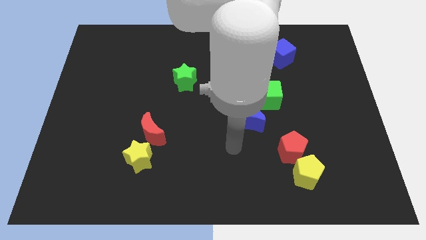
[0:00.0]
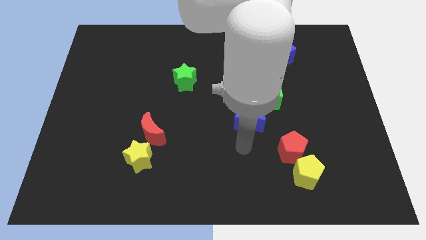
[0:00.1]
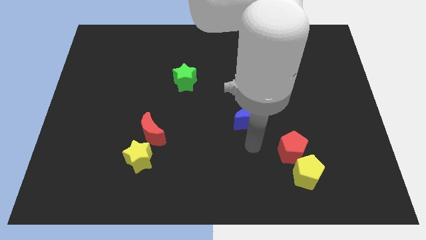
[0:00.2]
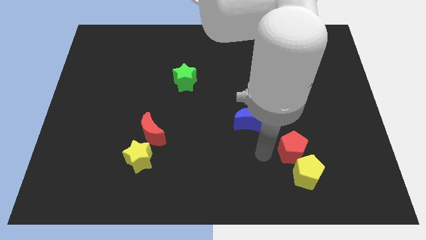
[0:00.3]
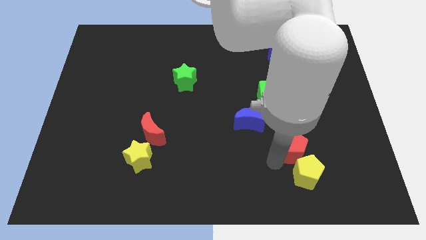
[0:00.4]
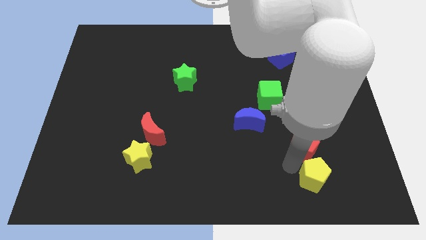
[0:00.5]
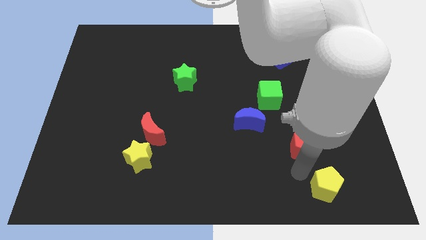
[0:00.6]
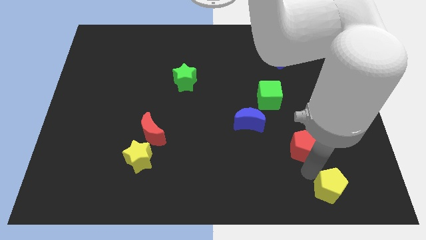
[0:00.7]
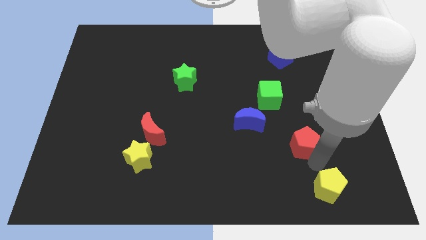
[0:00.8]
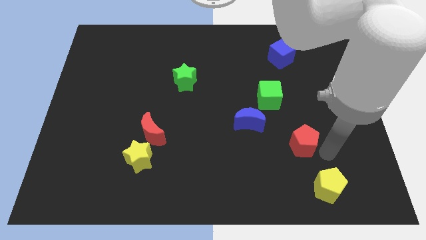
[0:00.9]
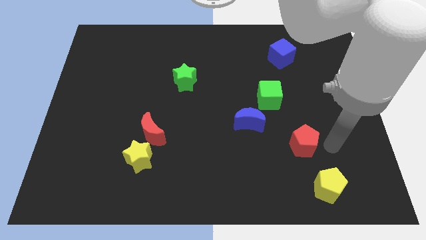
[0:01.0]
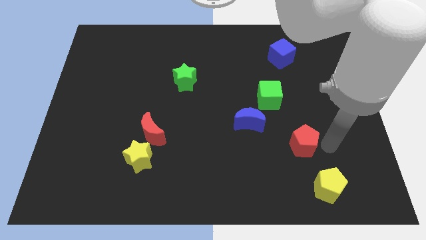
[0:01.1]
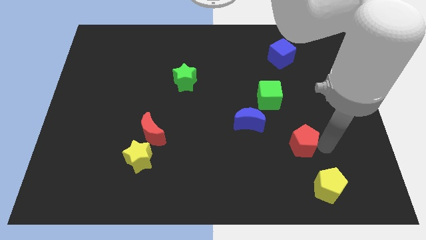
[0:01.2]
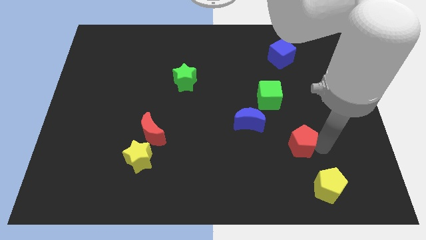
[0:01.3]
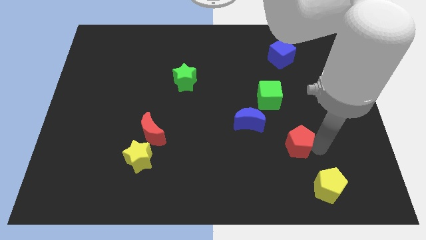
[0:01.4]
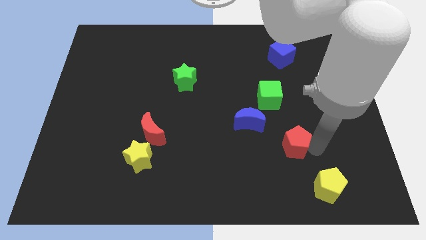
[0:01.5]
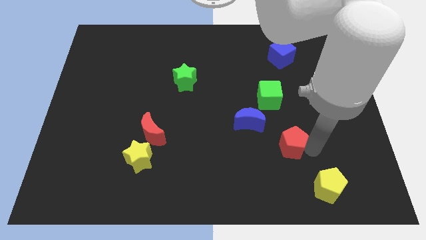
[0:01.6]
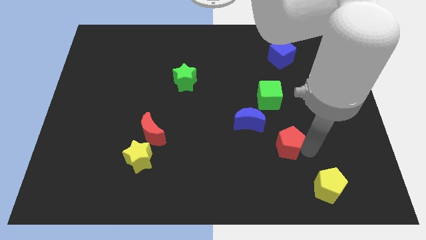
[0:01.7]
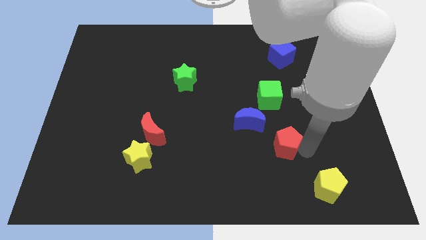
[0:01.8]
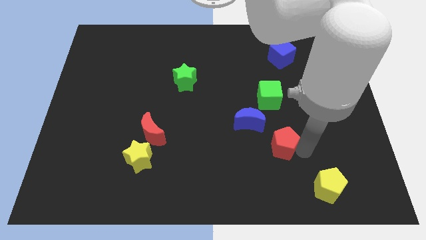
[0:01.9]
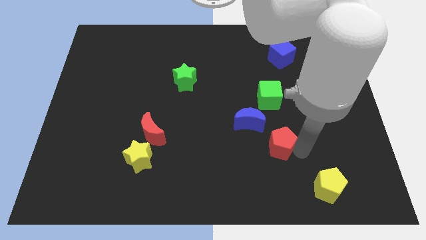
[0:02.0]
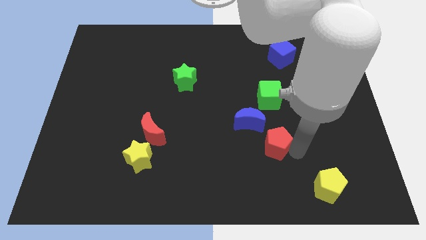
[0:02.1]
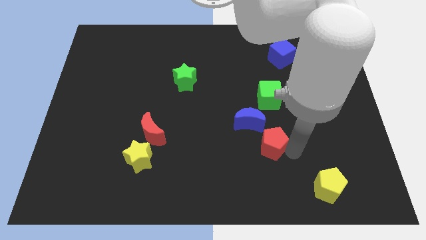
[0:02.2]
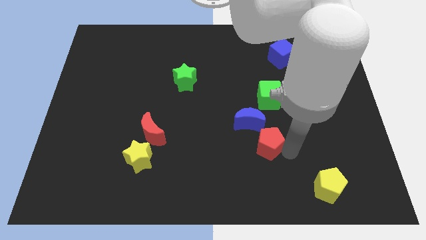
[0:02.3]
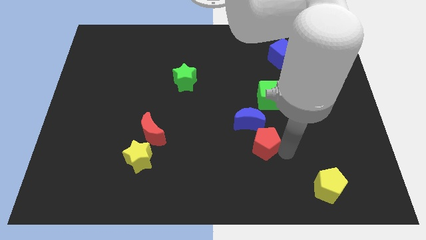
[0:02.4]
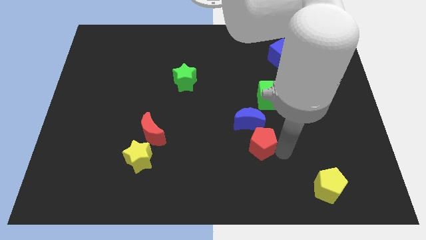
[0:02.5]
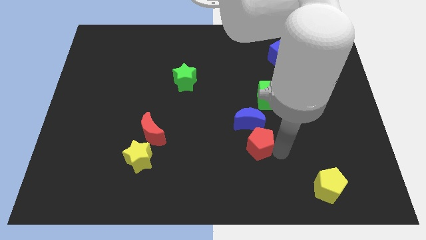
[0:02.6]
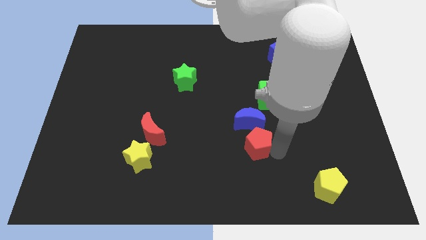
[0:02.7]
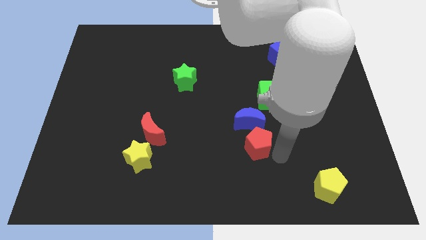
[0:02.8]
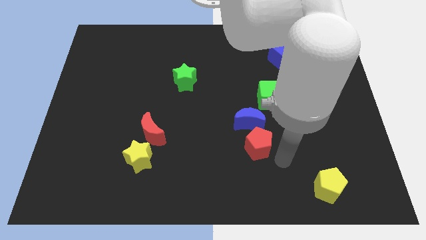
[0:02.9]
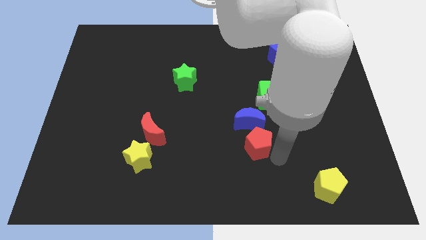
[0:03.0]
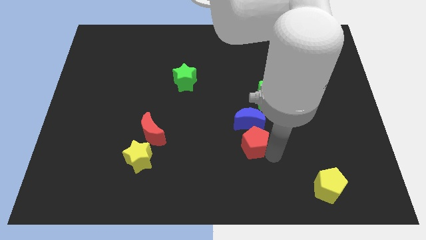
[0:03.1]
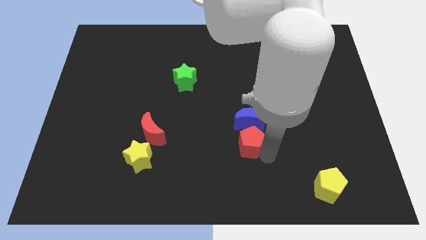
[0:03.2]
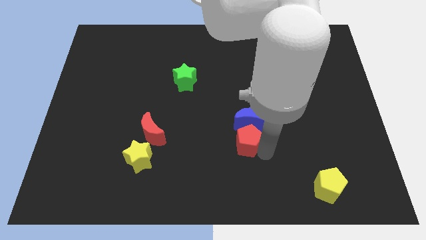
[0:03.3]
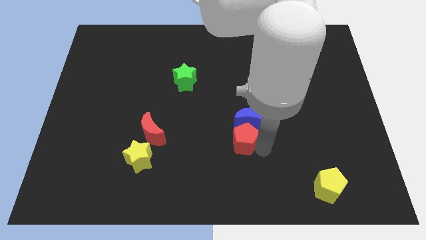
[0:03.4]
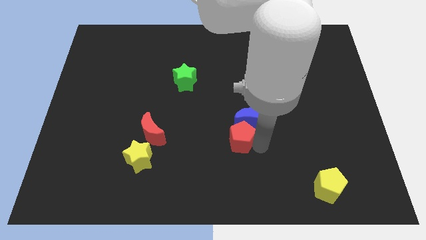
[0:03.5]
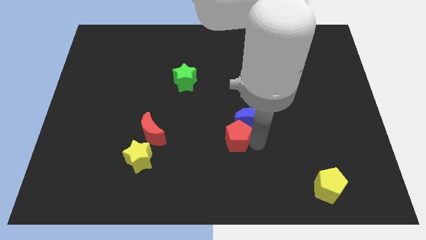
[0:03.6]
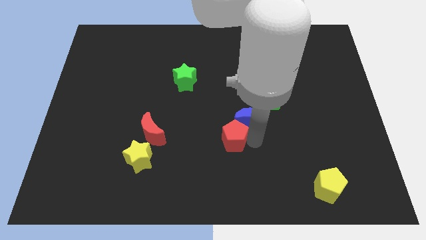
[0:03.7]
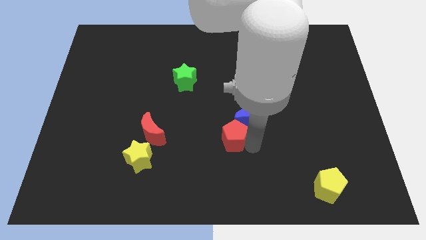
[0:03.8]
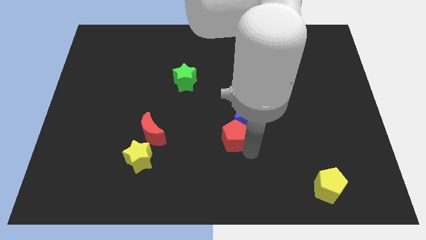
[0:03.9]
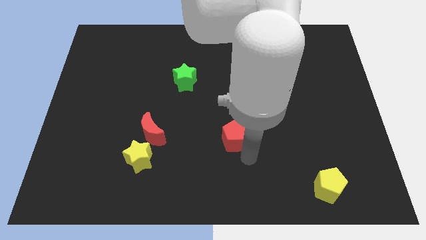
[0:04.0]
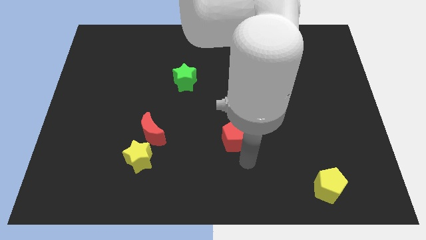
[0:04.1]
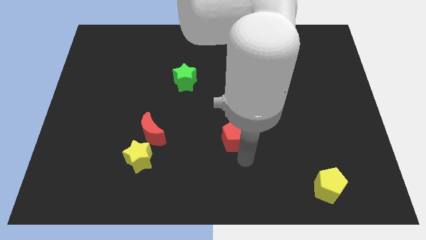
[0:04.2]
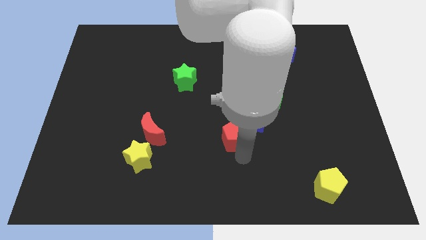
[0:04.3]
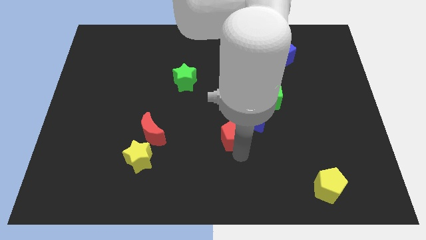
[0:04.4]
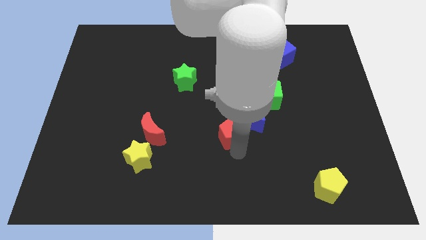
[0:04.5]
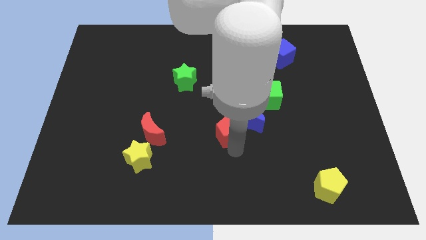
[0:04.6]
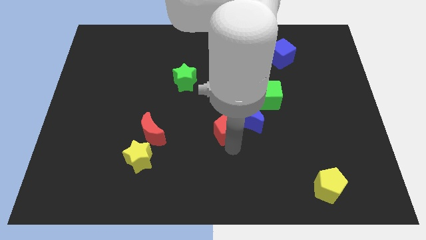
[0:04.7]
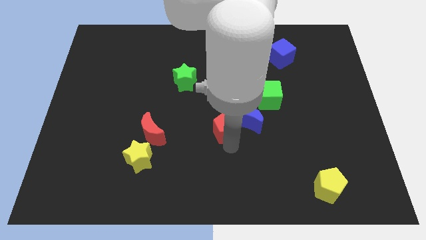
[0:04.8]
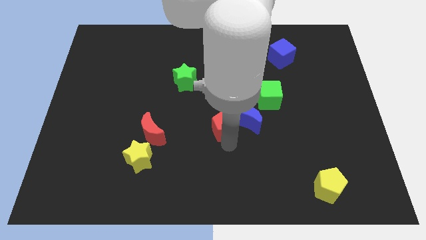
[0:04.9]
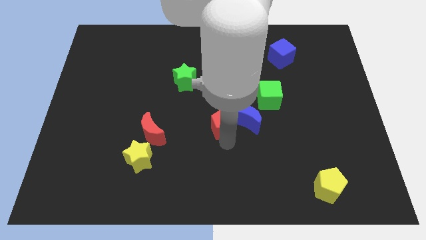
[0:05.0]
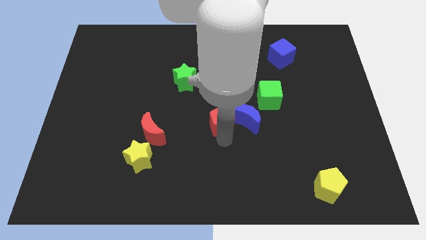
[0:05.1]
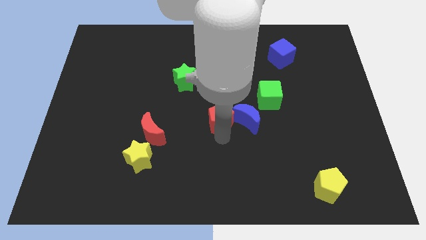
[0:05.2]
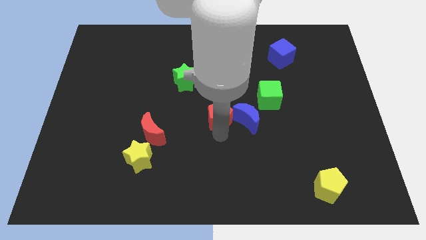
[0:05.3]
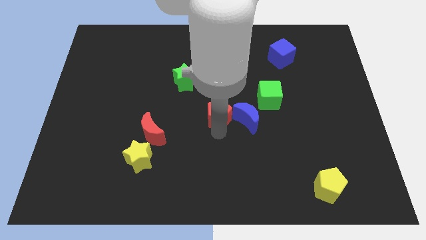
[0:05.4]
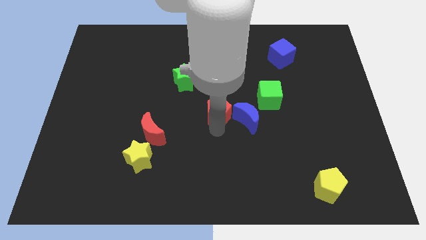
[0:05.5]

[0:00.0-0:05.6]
push the red pentagon just left of the green cube

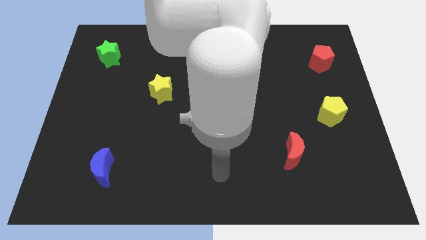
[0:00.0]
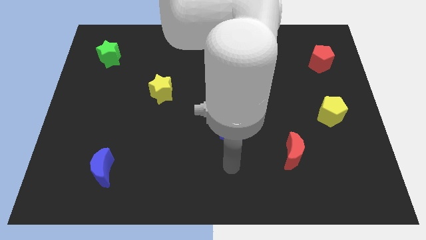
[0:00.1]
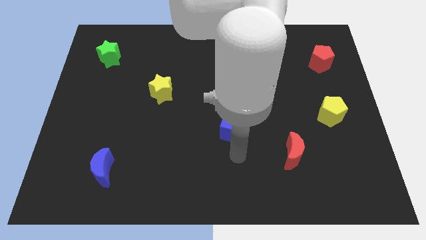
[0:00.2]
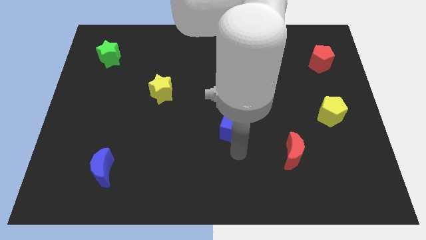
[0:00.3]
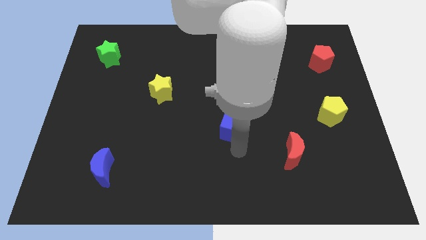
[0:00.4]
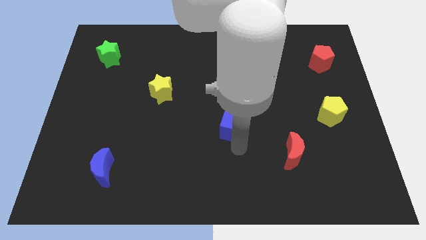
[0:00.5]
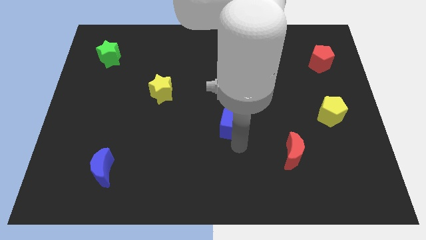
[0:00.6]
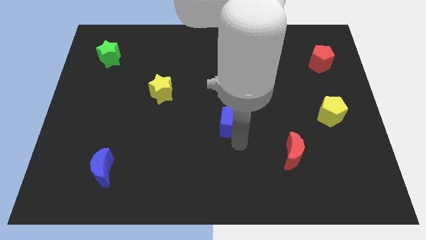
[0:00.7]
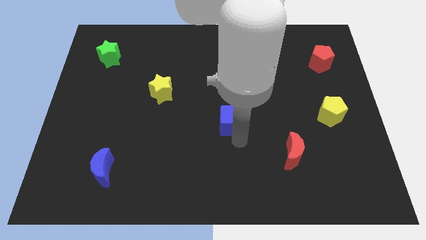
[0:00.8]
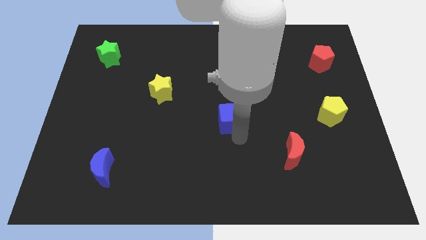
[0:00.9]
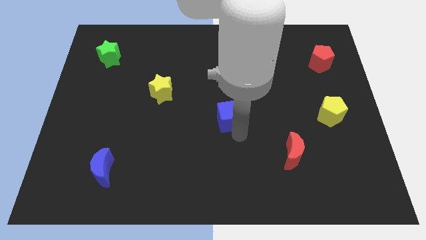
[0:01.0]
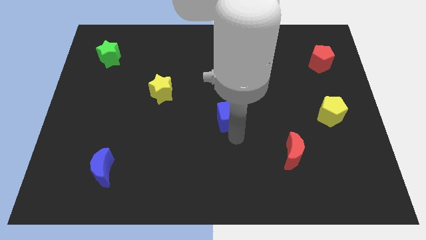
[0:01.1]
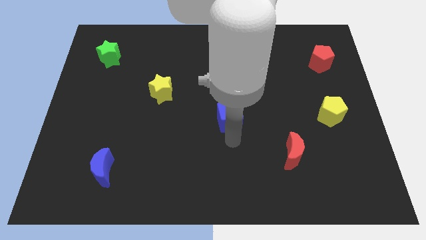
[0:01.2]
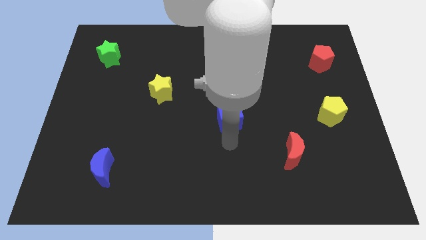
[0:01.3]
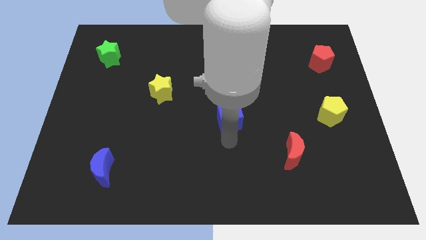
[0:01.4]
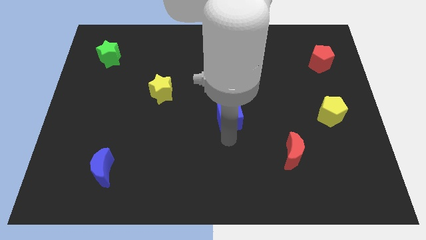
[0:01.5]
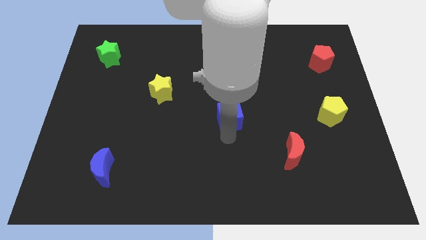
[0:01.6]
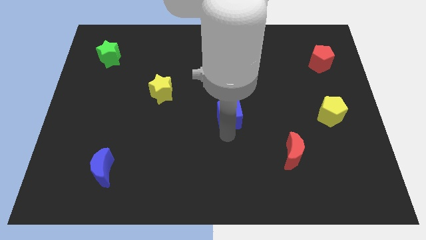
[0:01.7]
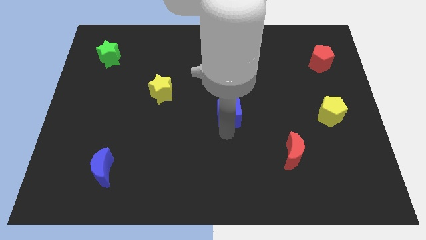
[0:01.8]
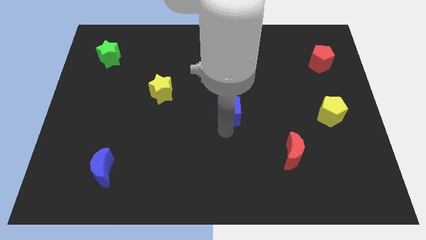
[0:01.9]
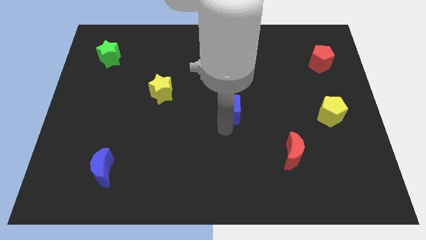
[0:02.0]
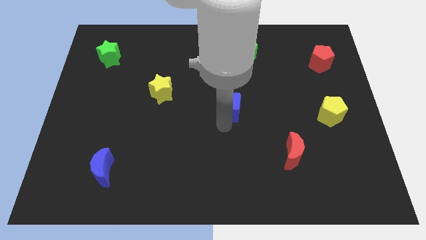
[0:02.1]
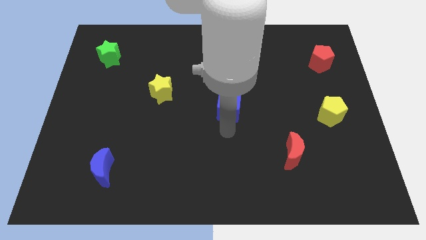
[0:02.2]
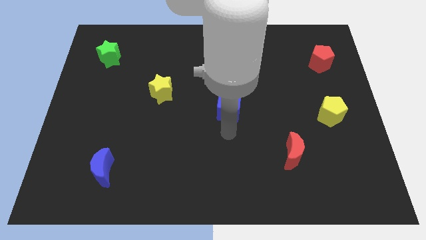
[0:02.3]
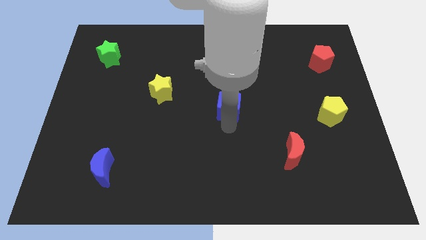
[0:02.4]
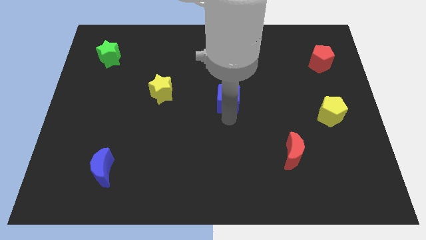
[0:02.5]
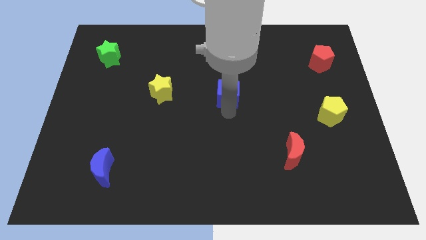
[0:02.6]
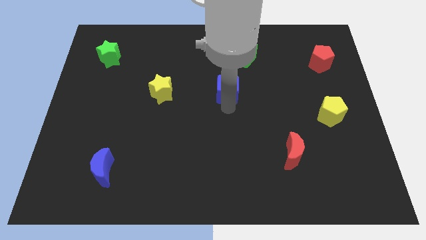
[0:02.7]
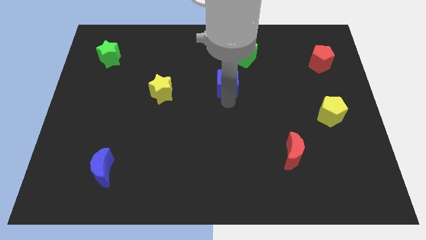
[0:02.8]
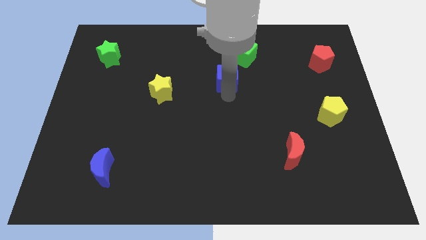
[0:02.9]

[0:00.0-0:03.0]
push the blue cube diagonally down and to the left of the green cube
